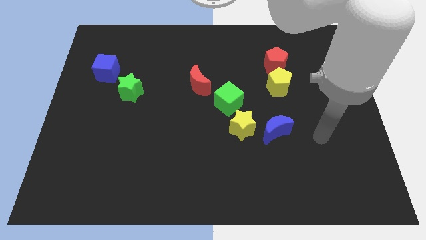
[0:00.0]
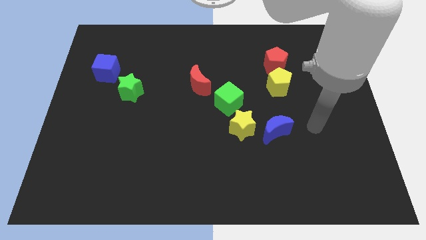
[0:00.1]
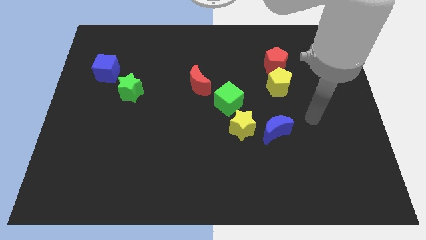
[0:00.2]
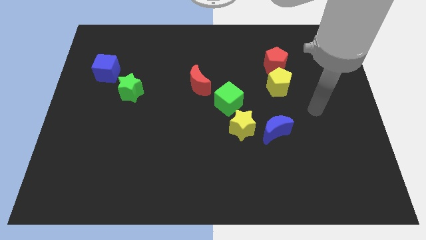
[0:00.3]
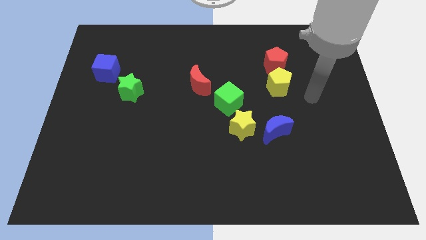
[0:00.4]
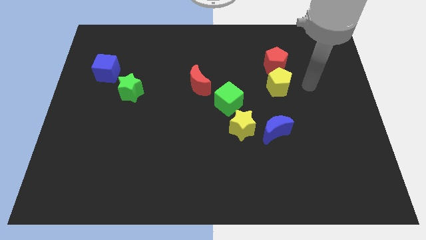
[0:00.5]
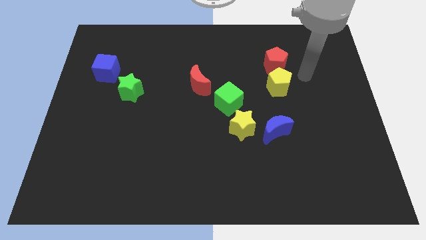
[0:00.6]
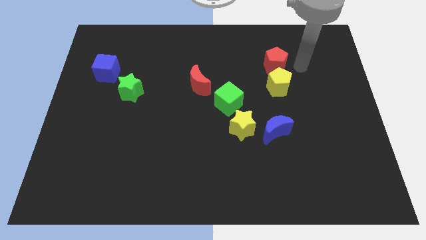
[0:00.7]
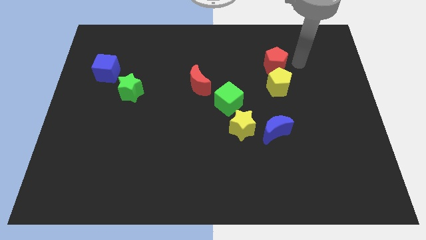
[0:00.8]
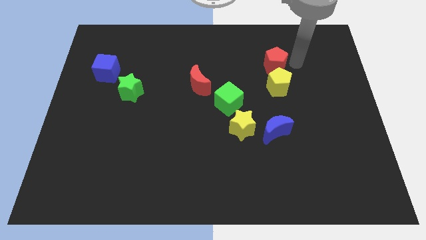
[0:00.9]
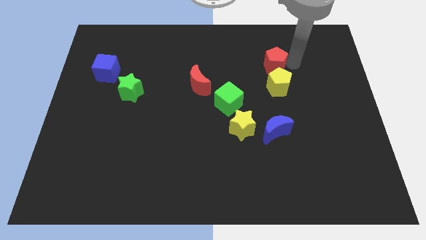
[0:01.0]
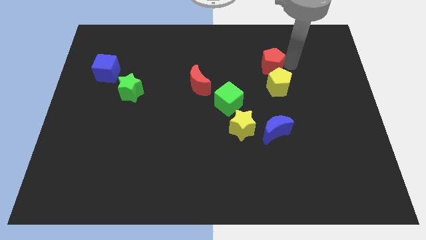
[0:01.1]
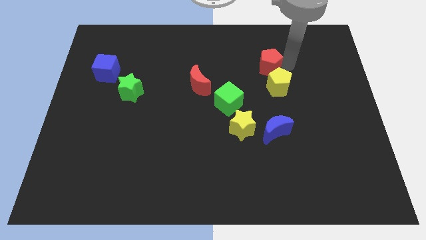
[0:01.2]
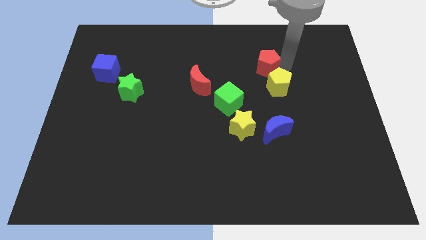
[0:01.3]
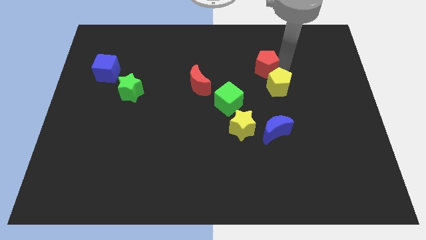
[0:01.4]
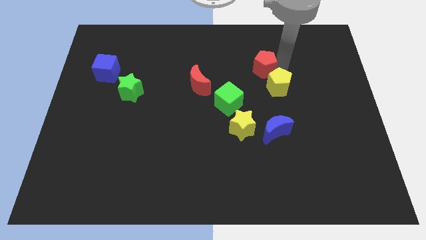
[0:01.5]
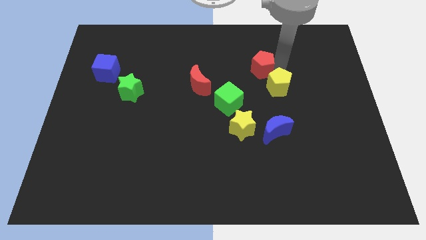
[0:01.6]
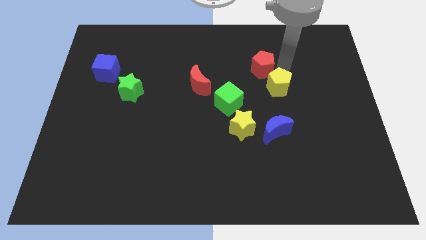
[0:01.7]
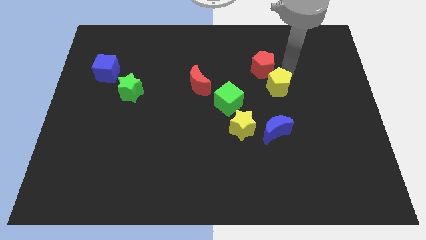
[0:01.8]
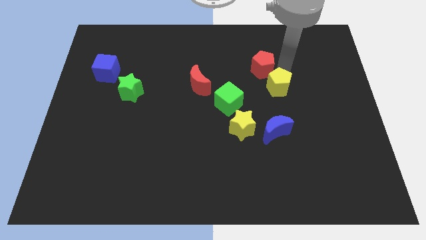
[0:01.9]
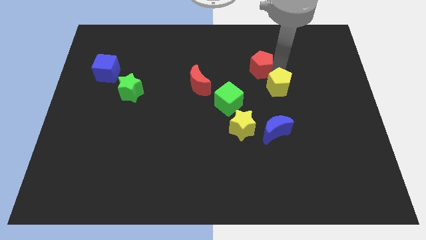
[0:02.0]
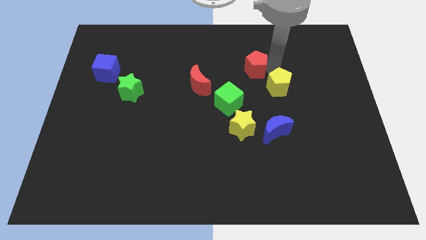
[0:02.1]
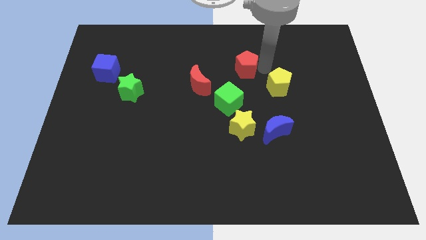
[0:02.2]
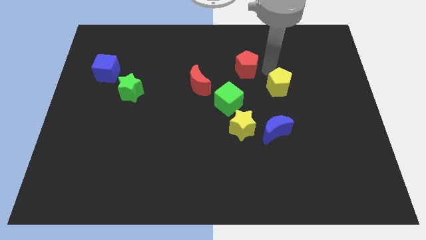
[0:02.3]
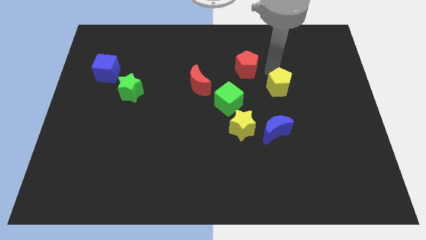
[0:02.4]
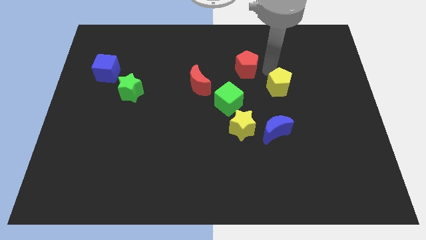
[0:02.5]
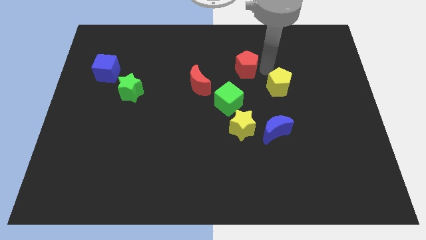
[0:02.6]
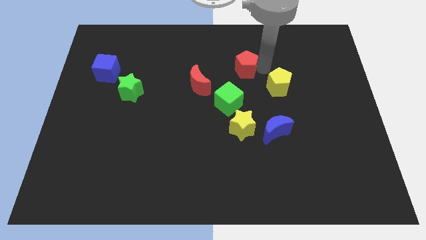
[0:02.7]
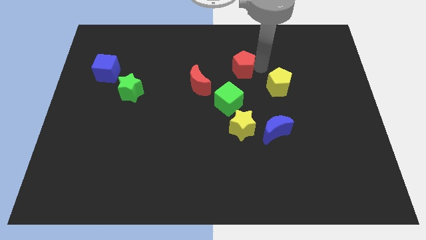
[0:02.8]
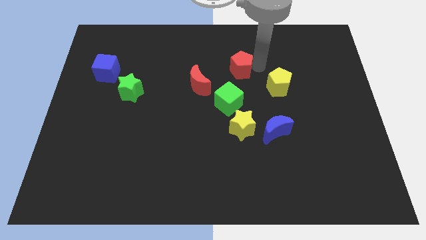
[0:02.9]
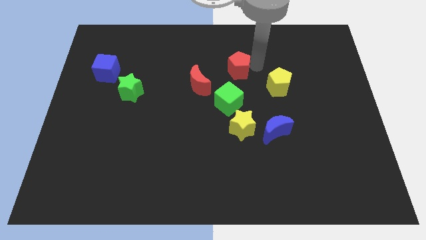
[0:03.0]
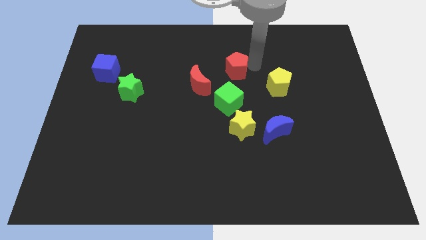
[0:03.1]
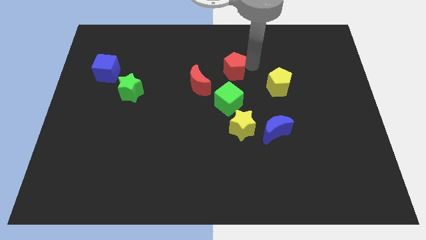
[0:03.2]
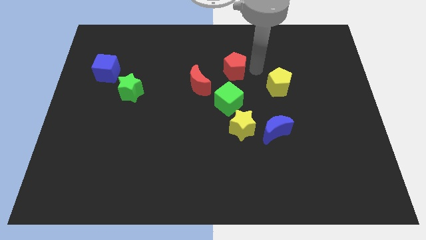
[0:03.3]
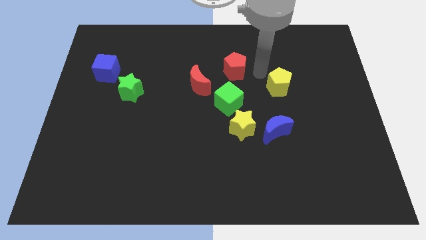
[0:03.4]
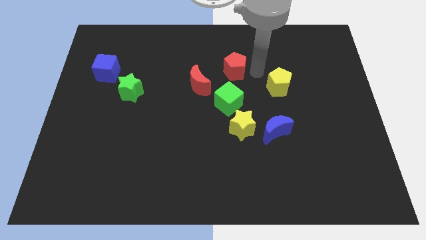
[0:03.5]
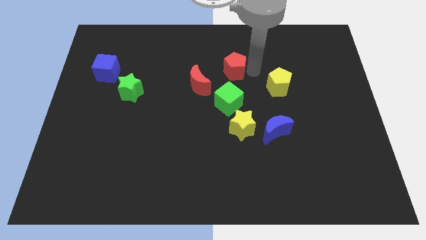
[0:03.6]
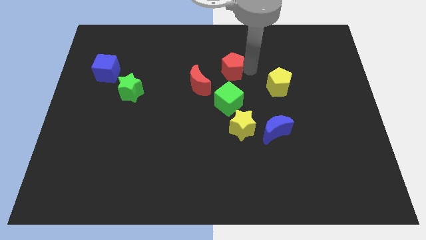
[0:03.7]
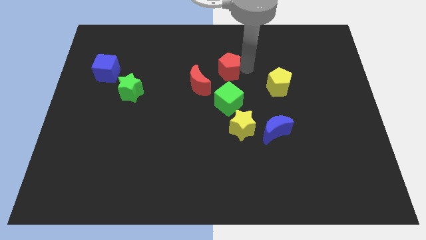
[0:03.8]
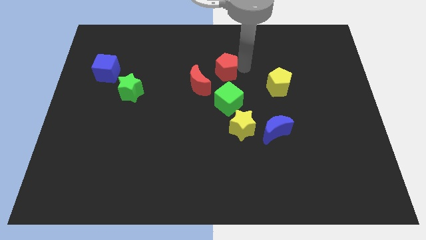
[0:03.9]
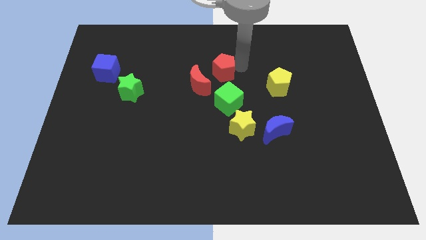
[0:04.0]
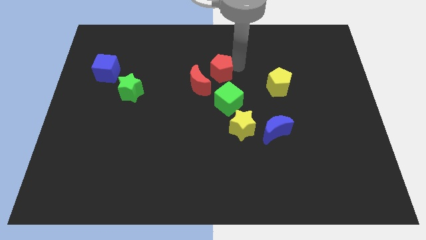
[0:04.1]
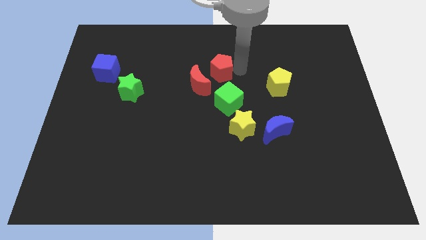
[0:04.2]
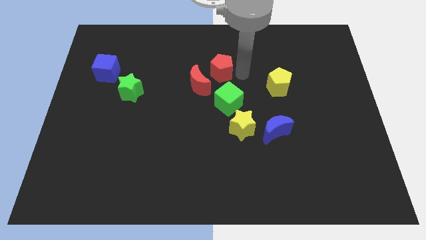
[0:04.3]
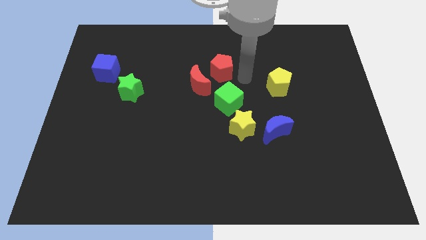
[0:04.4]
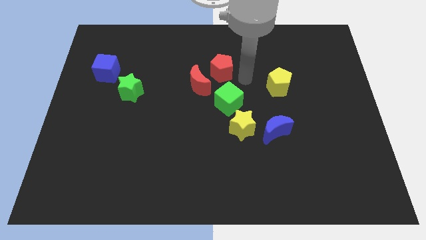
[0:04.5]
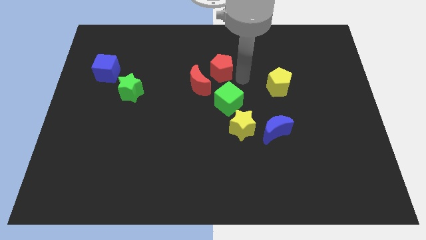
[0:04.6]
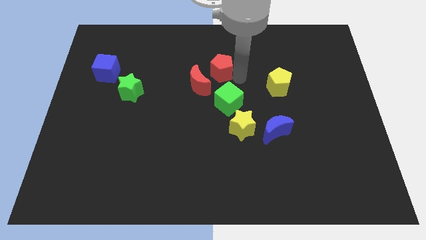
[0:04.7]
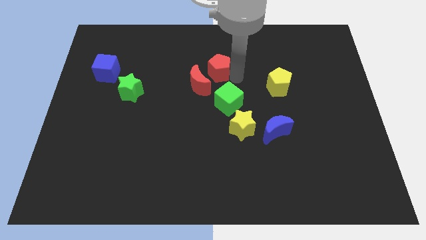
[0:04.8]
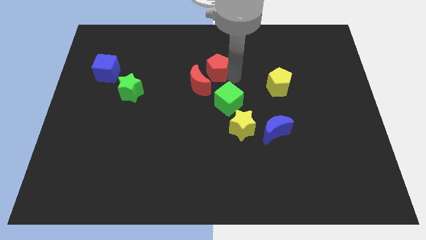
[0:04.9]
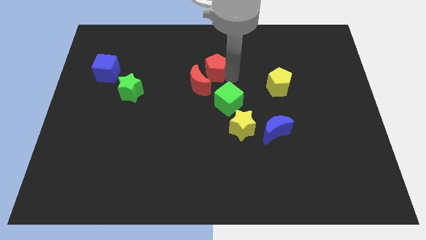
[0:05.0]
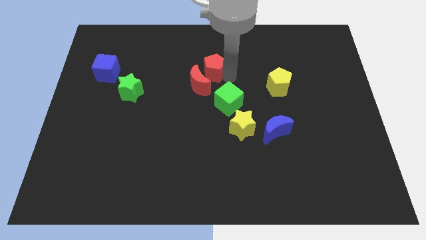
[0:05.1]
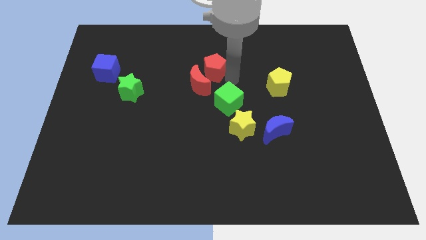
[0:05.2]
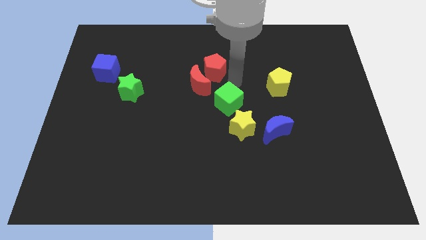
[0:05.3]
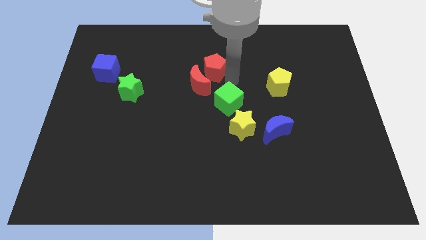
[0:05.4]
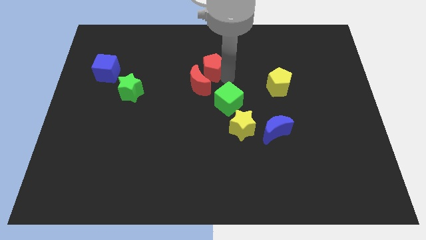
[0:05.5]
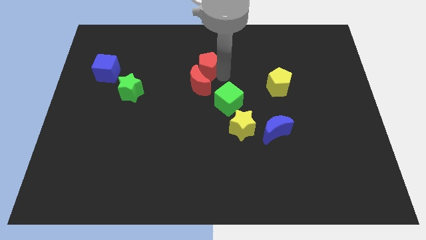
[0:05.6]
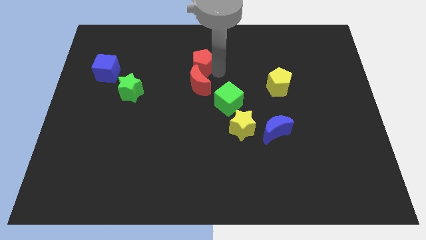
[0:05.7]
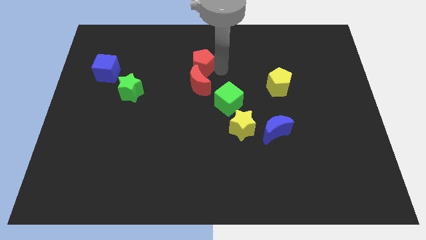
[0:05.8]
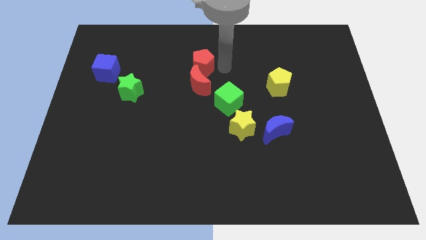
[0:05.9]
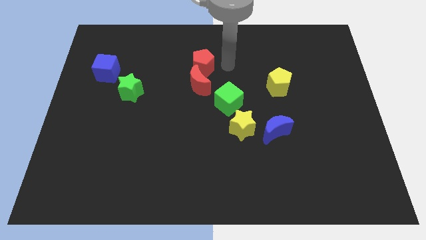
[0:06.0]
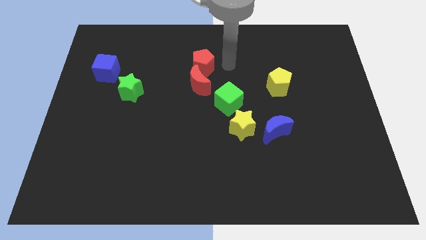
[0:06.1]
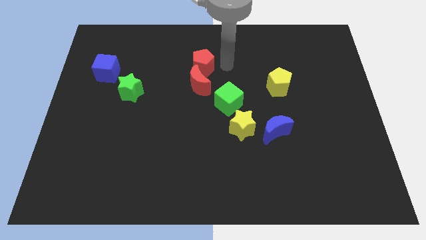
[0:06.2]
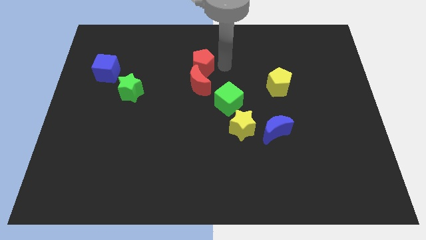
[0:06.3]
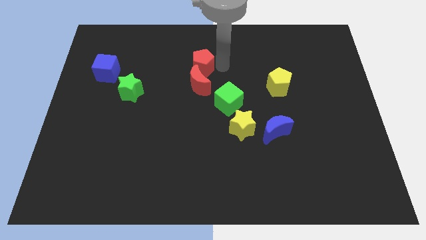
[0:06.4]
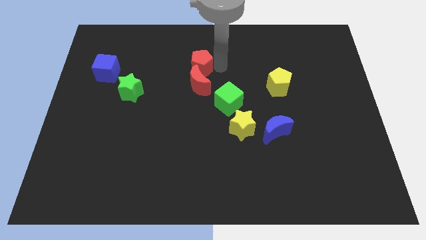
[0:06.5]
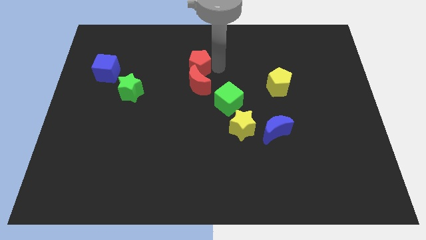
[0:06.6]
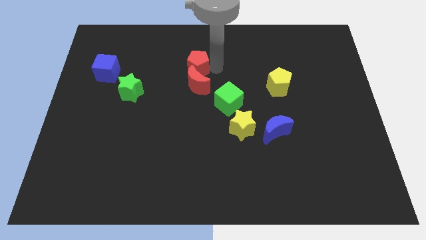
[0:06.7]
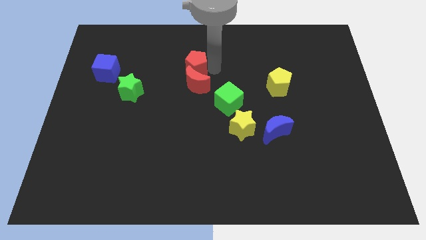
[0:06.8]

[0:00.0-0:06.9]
slide the red pentagon left

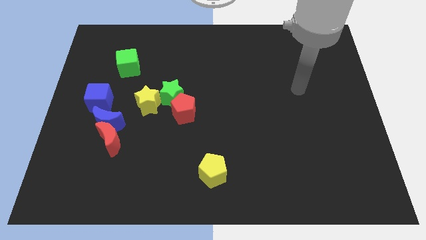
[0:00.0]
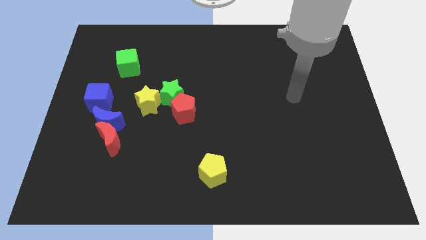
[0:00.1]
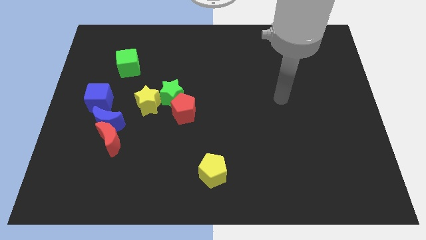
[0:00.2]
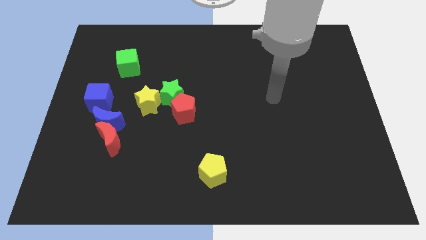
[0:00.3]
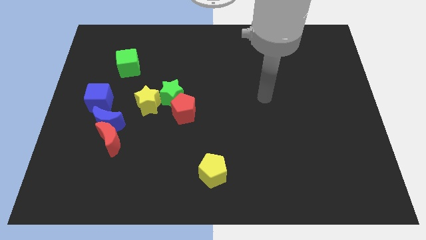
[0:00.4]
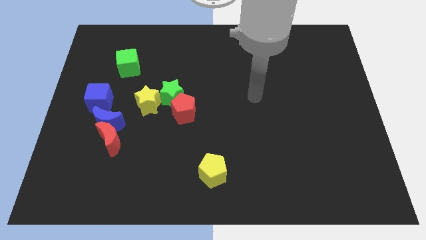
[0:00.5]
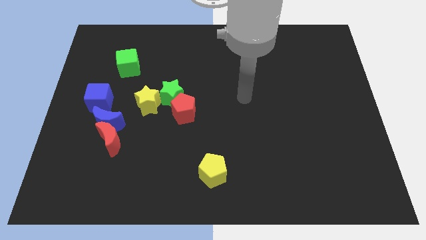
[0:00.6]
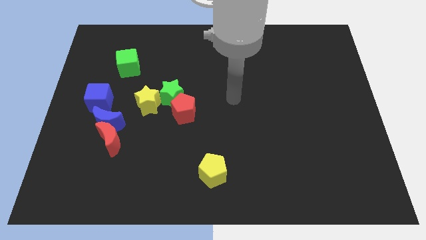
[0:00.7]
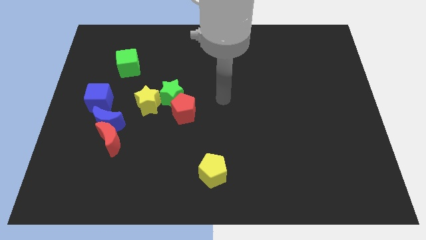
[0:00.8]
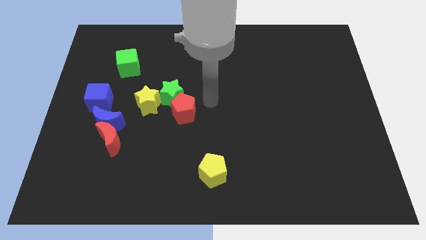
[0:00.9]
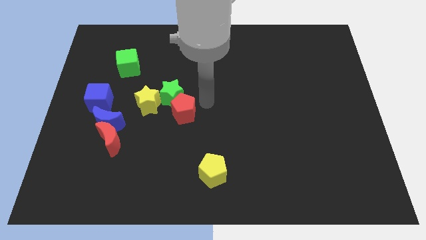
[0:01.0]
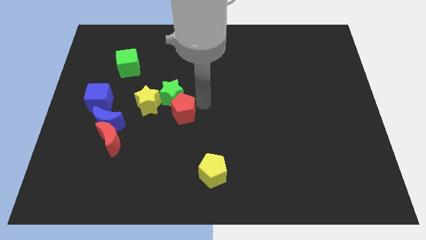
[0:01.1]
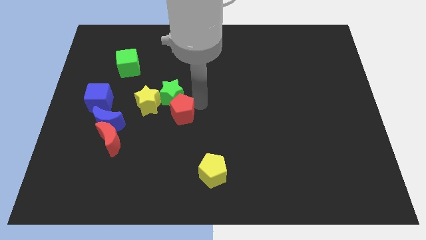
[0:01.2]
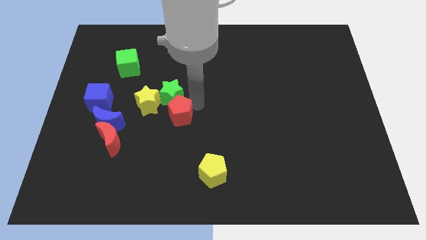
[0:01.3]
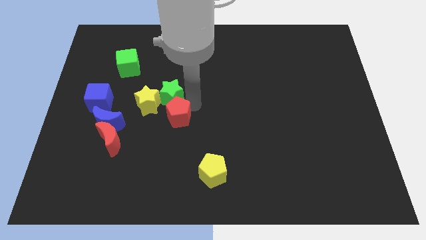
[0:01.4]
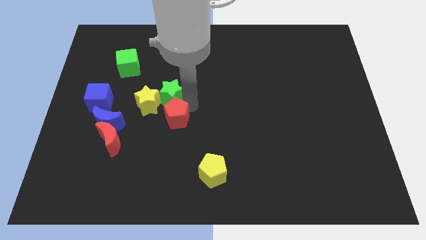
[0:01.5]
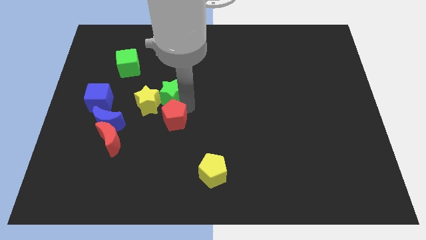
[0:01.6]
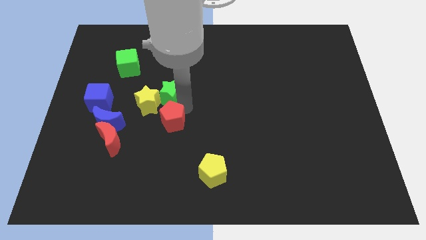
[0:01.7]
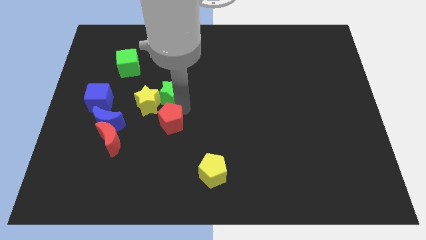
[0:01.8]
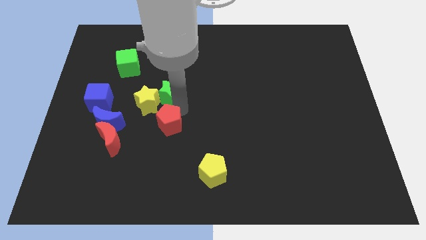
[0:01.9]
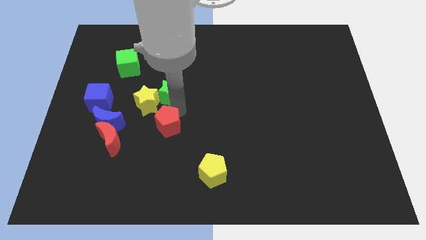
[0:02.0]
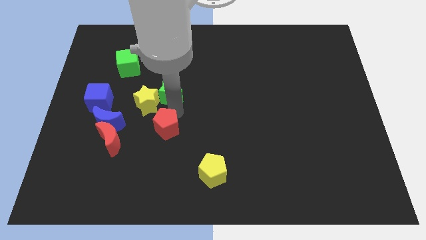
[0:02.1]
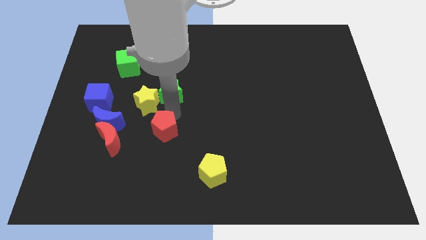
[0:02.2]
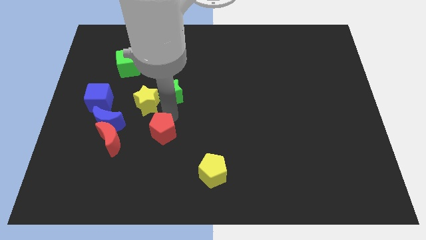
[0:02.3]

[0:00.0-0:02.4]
push the red pentagon down and then left a little bit
